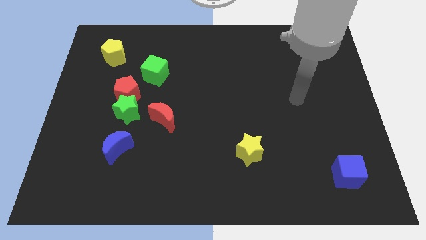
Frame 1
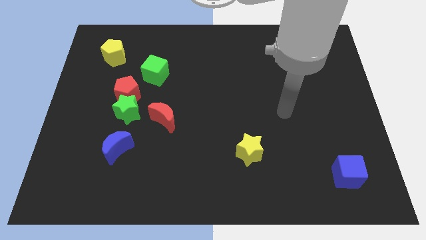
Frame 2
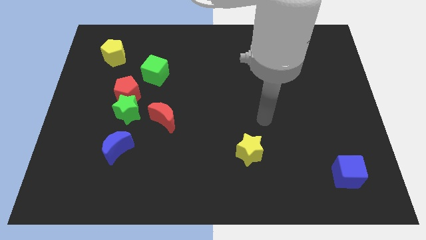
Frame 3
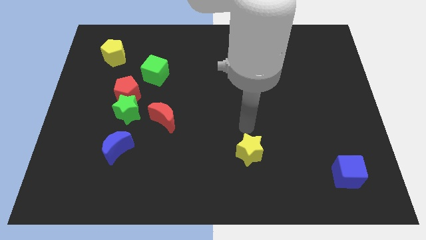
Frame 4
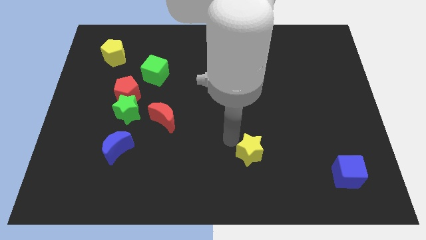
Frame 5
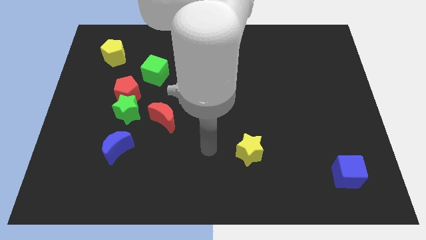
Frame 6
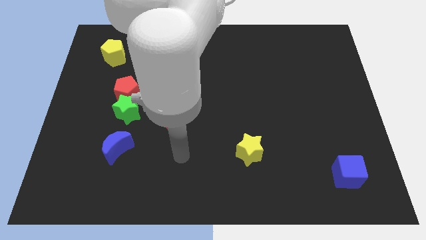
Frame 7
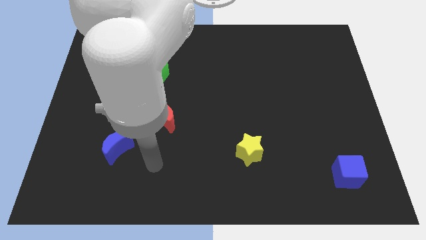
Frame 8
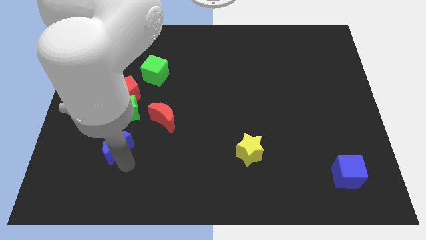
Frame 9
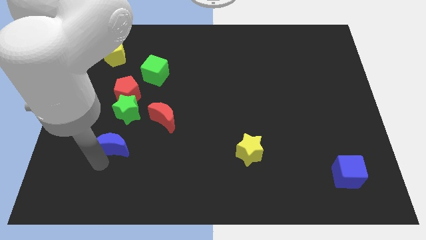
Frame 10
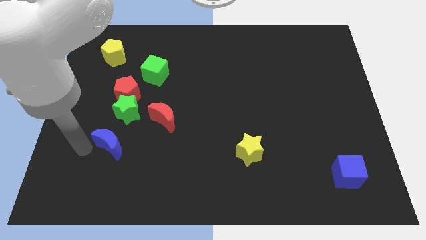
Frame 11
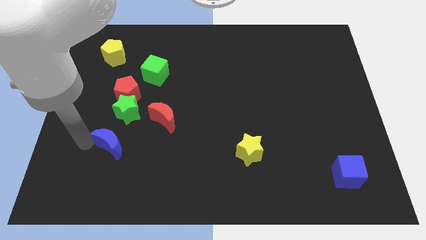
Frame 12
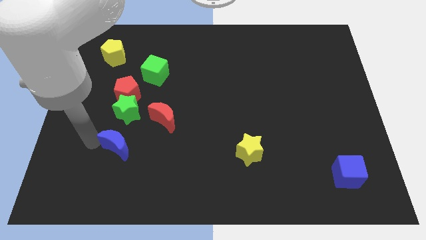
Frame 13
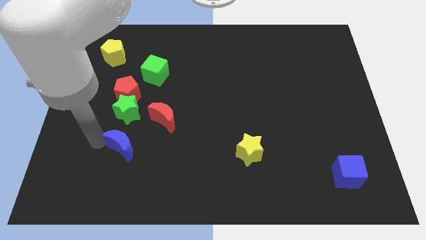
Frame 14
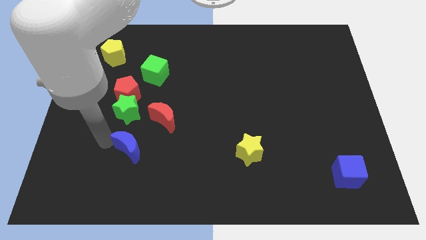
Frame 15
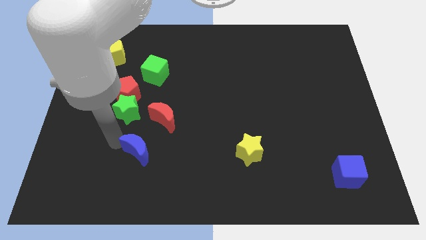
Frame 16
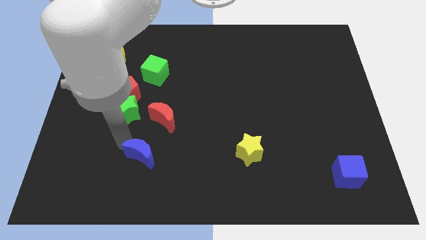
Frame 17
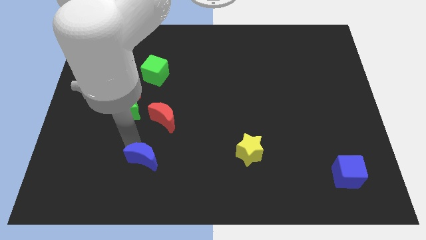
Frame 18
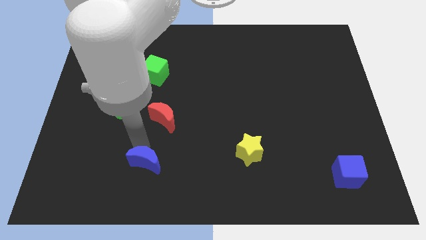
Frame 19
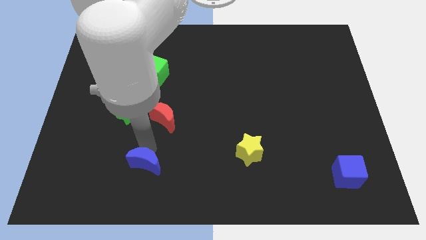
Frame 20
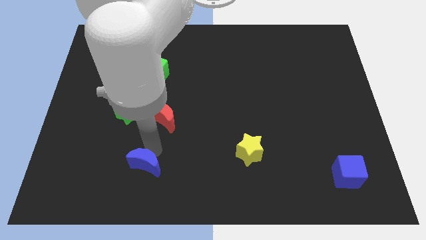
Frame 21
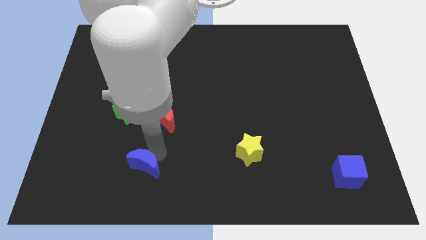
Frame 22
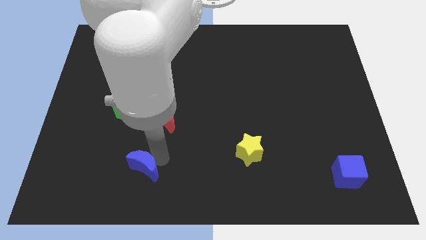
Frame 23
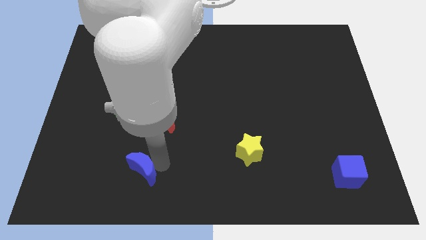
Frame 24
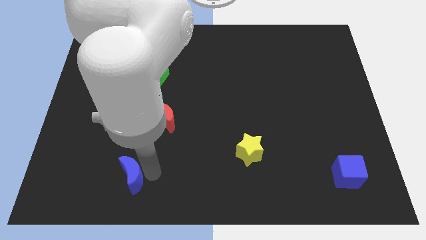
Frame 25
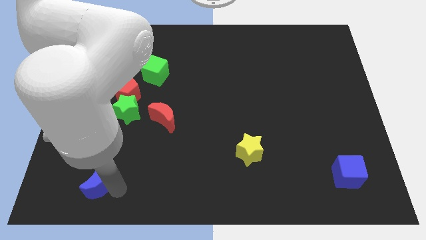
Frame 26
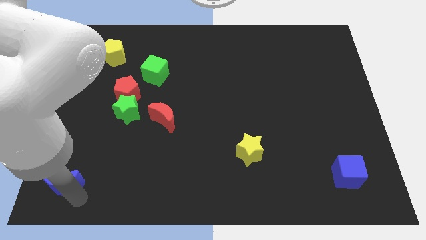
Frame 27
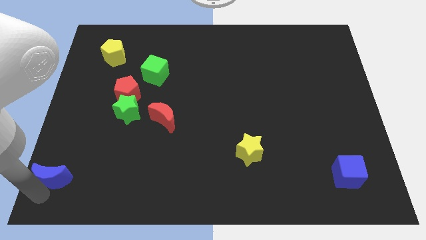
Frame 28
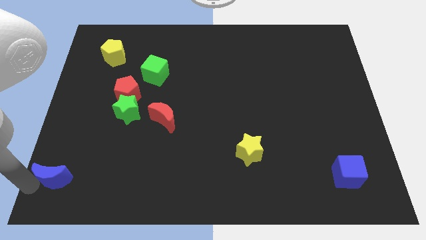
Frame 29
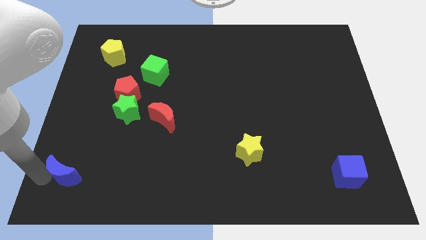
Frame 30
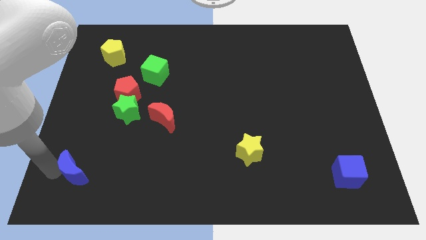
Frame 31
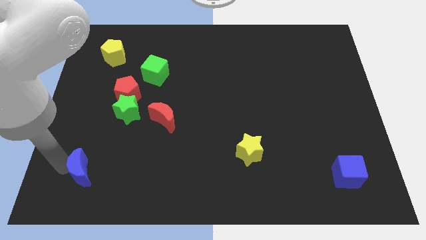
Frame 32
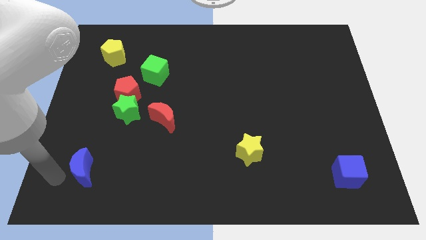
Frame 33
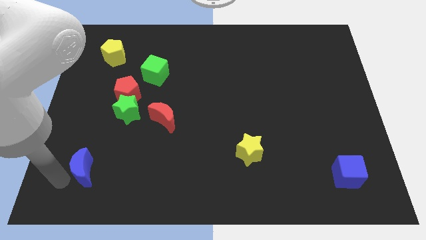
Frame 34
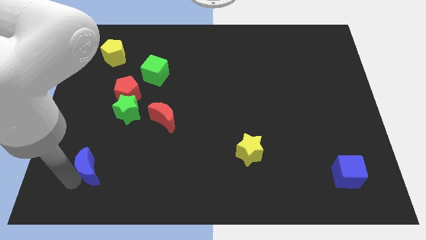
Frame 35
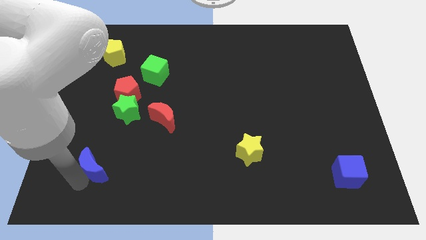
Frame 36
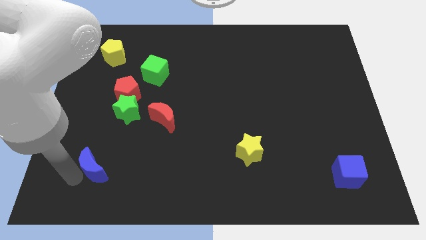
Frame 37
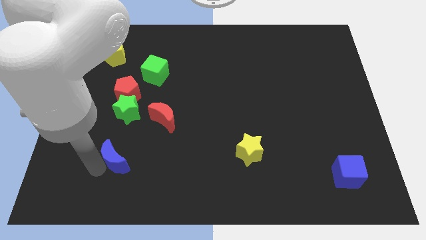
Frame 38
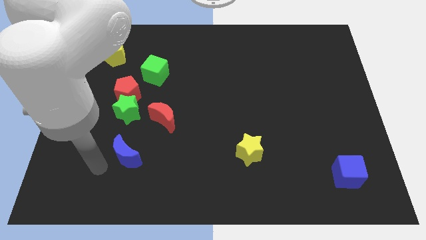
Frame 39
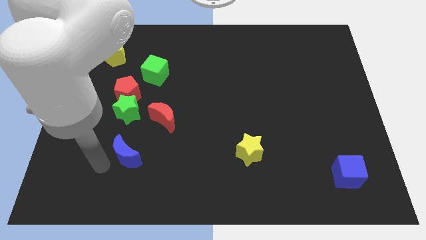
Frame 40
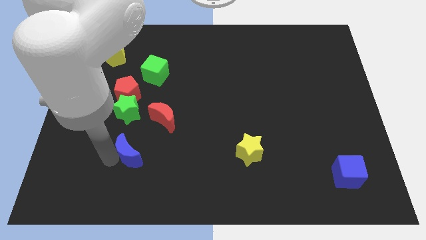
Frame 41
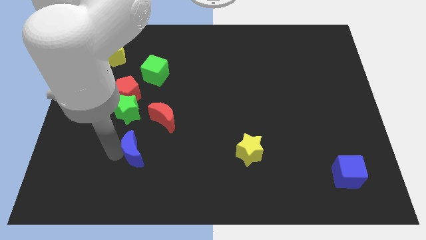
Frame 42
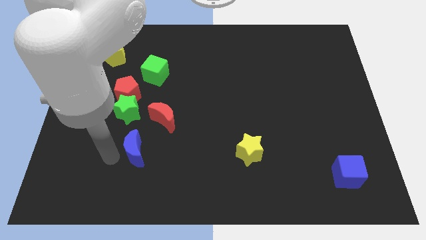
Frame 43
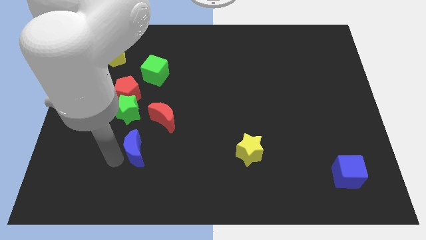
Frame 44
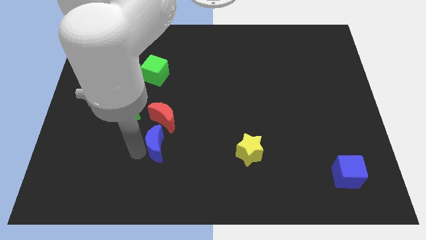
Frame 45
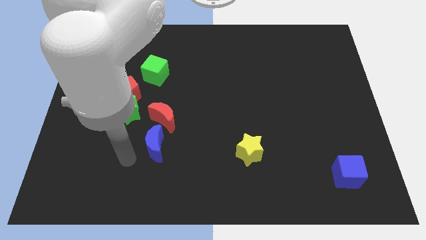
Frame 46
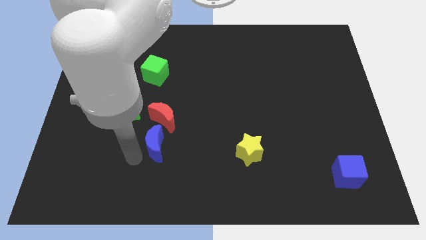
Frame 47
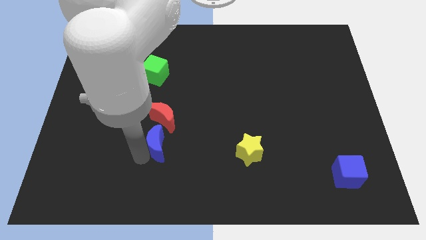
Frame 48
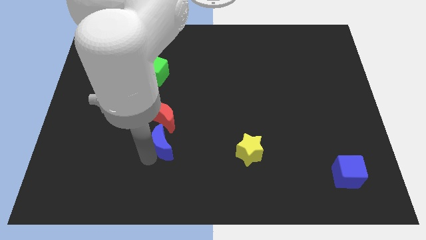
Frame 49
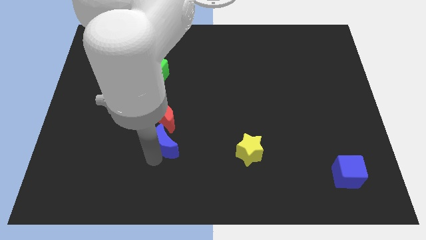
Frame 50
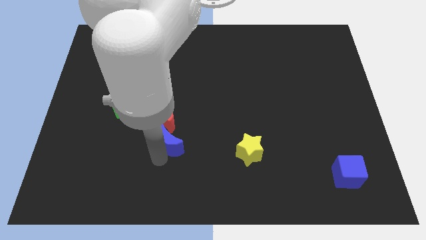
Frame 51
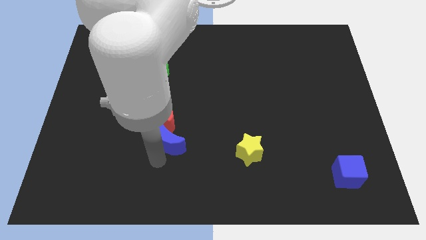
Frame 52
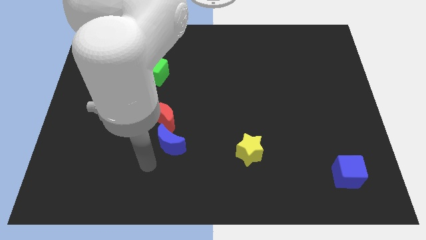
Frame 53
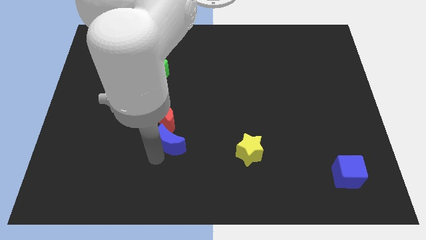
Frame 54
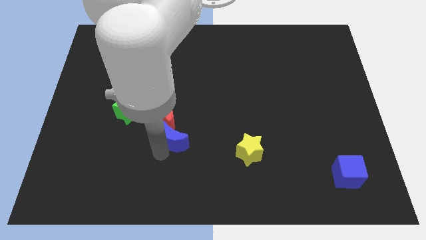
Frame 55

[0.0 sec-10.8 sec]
move the blue moon upwards and to the right a little bit

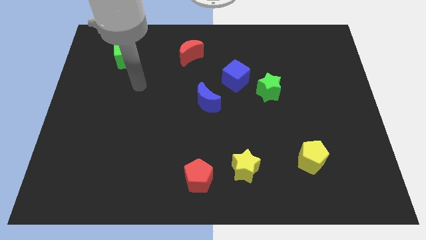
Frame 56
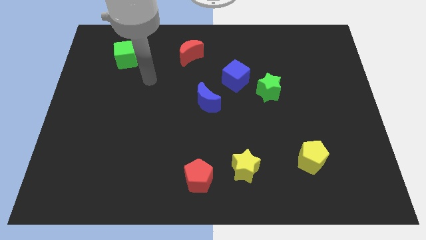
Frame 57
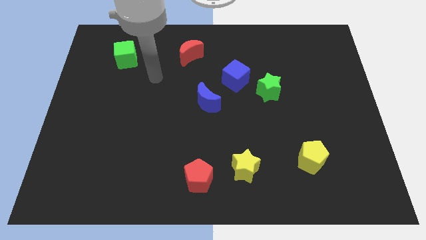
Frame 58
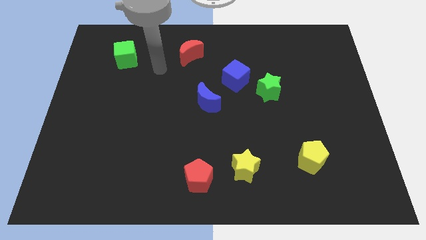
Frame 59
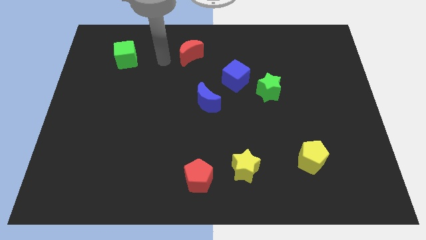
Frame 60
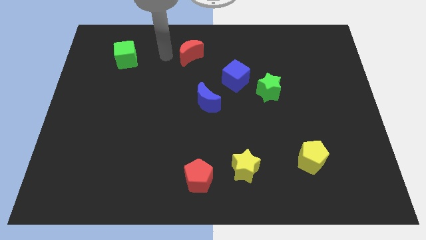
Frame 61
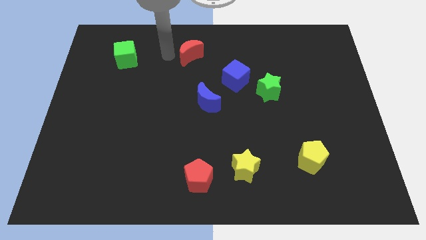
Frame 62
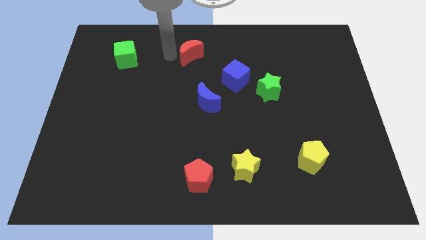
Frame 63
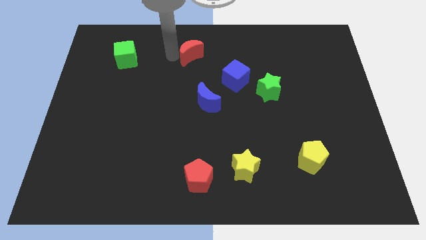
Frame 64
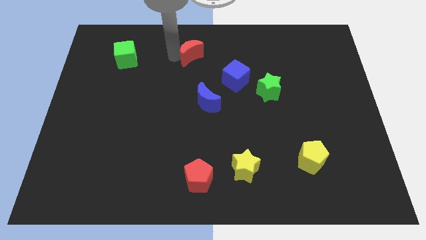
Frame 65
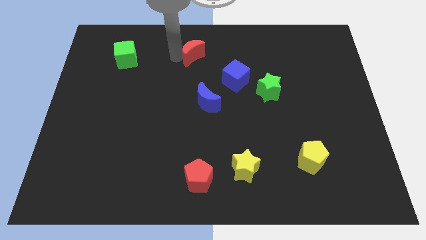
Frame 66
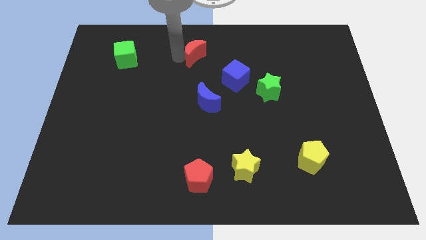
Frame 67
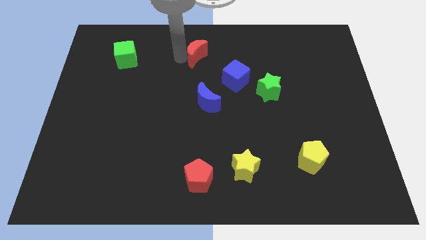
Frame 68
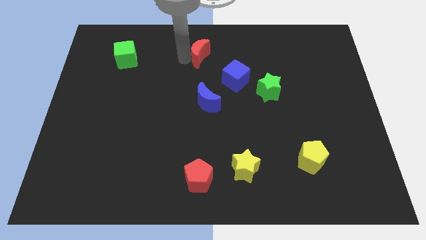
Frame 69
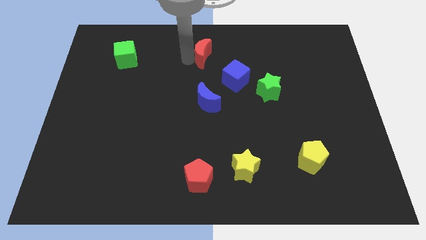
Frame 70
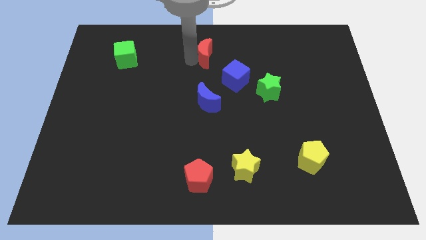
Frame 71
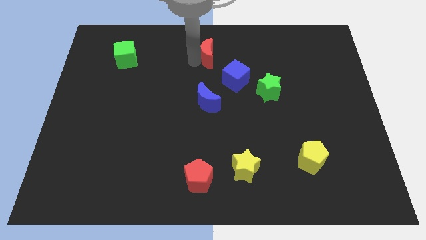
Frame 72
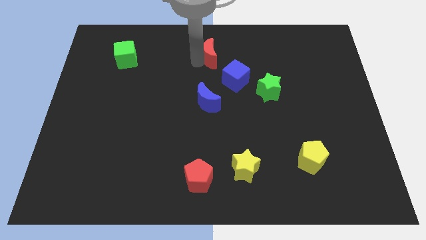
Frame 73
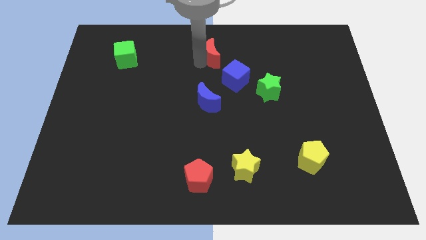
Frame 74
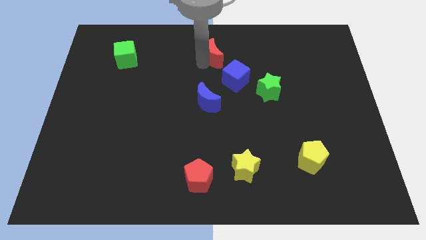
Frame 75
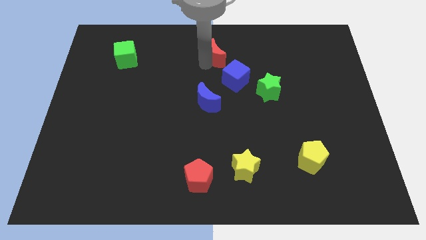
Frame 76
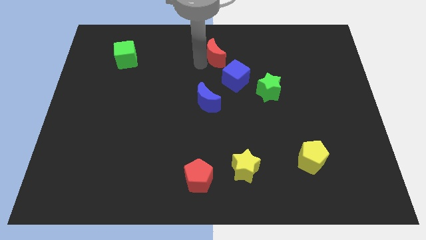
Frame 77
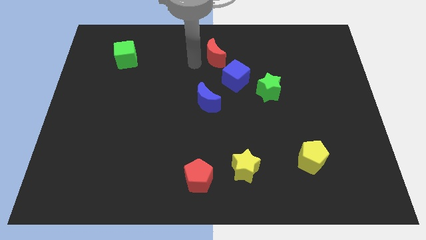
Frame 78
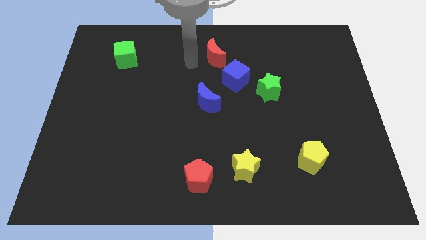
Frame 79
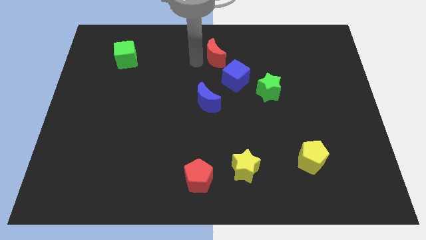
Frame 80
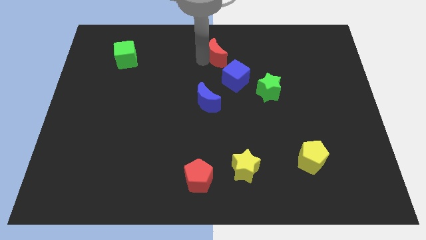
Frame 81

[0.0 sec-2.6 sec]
slide the red moon a little bit right
